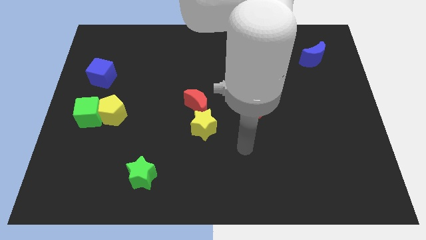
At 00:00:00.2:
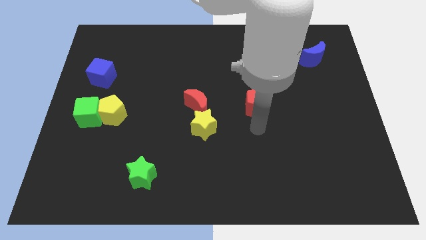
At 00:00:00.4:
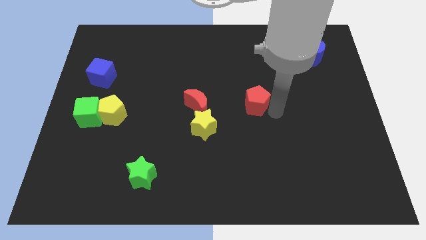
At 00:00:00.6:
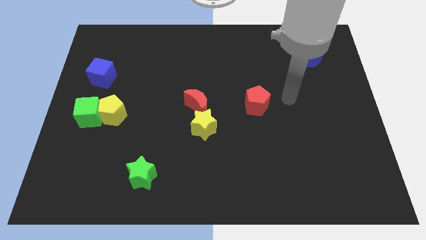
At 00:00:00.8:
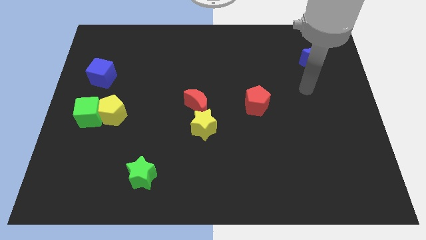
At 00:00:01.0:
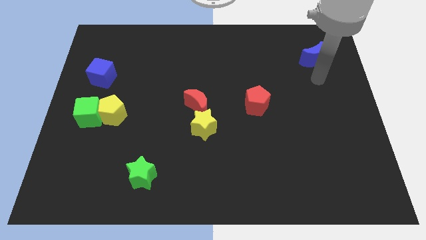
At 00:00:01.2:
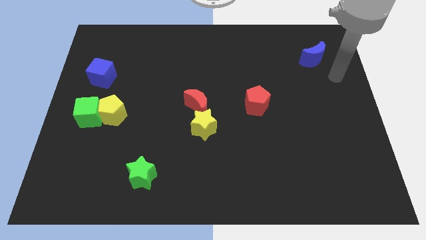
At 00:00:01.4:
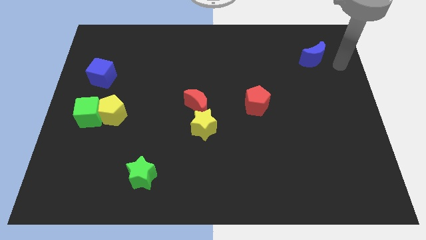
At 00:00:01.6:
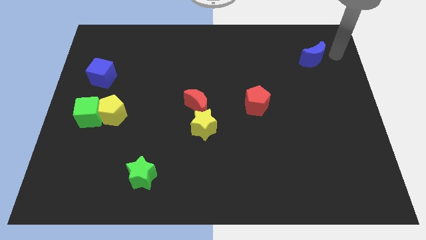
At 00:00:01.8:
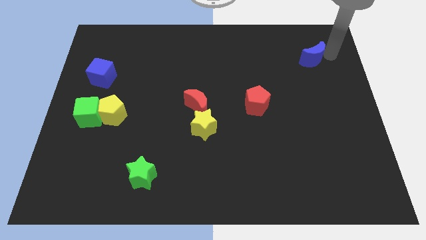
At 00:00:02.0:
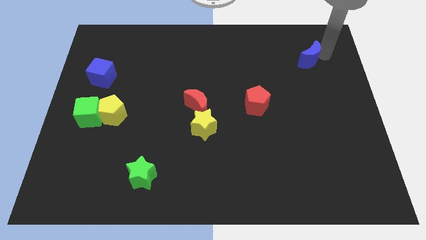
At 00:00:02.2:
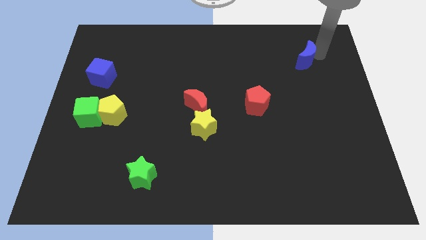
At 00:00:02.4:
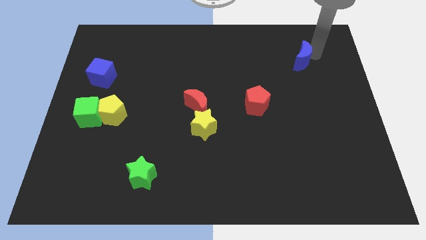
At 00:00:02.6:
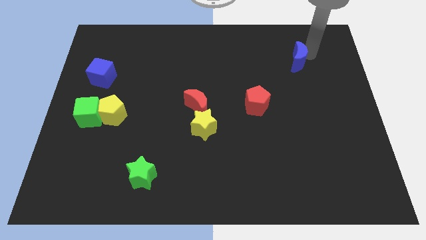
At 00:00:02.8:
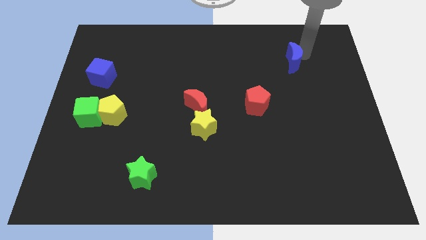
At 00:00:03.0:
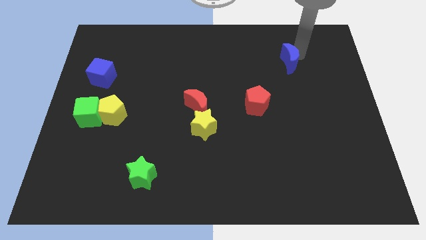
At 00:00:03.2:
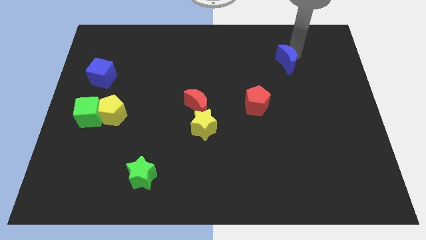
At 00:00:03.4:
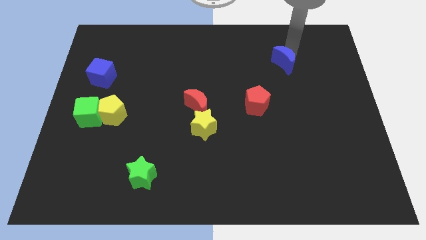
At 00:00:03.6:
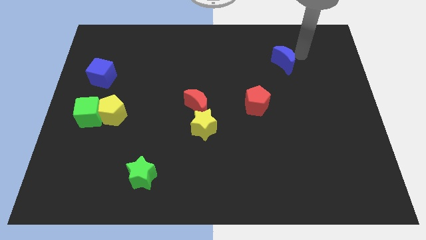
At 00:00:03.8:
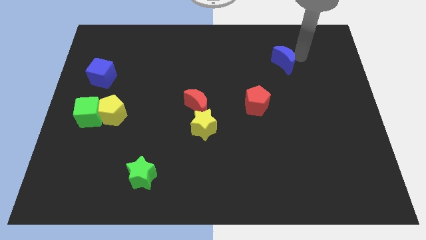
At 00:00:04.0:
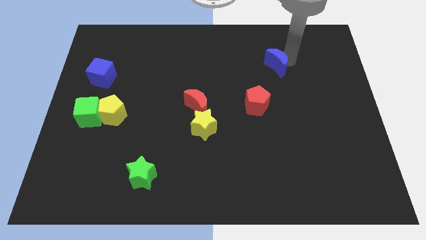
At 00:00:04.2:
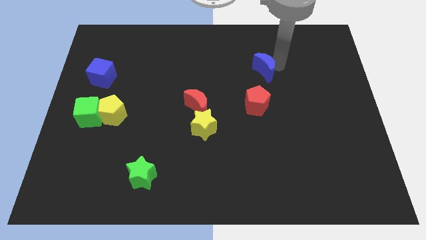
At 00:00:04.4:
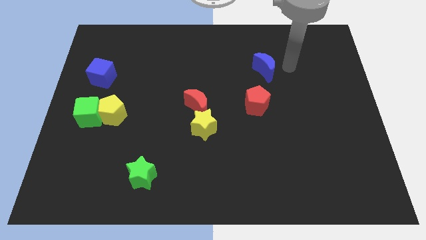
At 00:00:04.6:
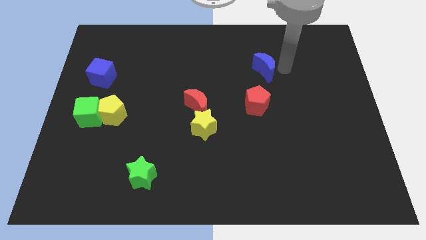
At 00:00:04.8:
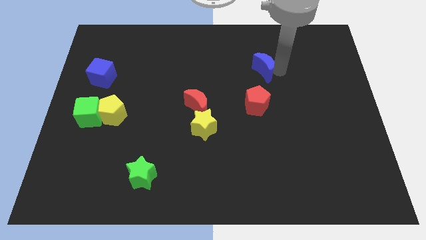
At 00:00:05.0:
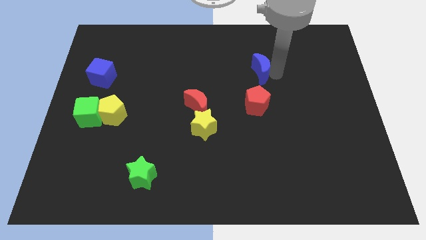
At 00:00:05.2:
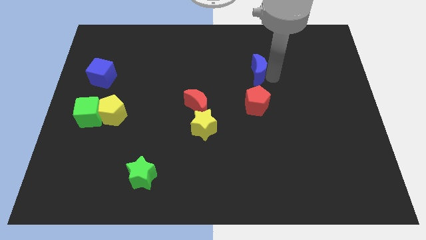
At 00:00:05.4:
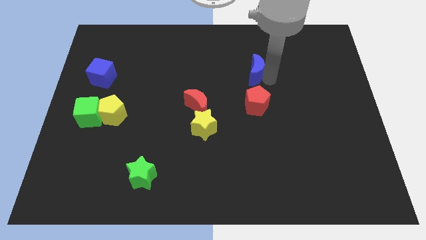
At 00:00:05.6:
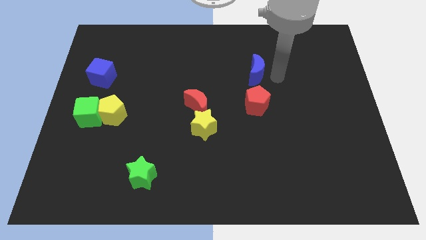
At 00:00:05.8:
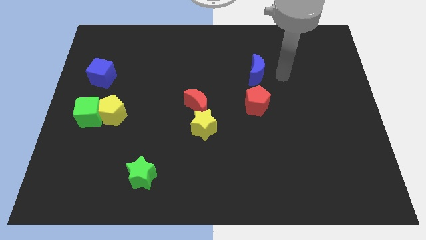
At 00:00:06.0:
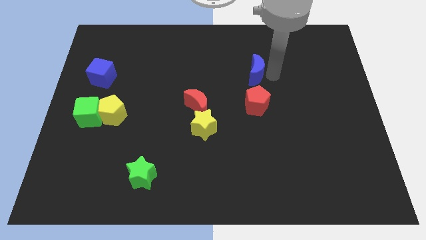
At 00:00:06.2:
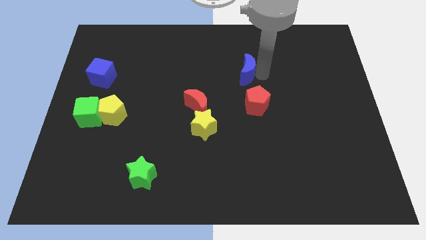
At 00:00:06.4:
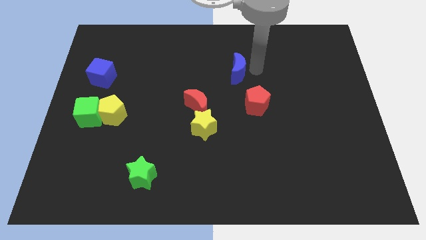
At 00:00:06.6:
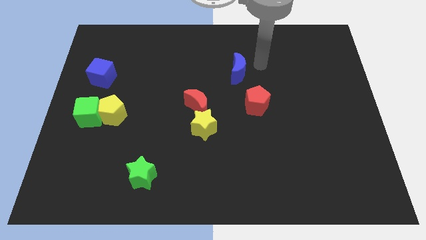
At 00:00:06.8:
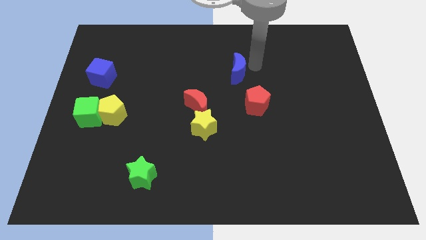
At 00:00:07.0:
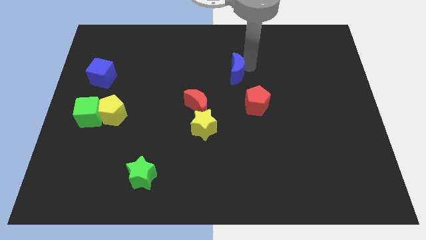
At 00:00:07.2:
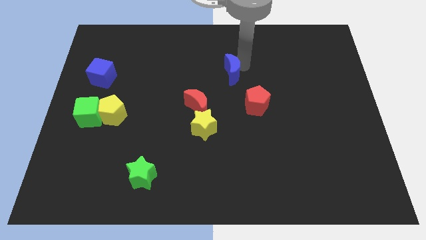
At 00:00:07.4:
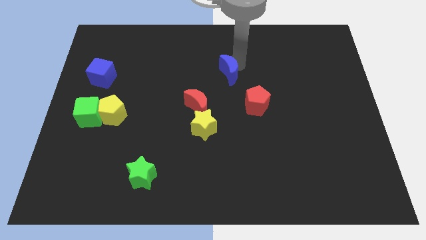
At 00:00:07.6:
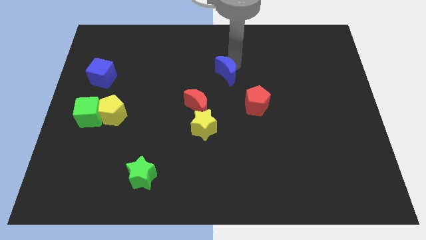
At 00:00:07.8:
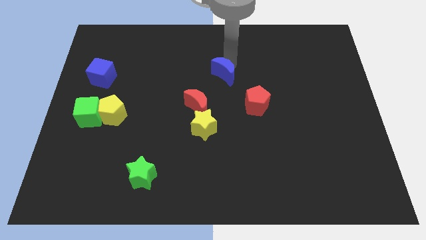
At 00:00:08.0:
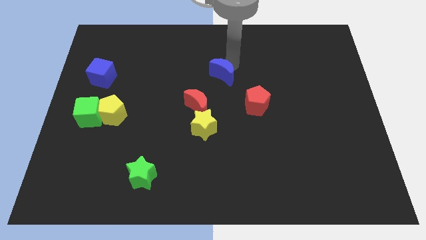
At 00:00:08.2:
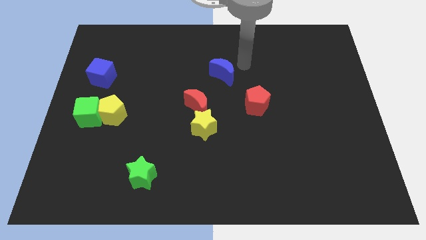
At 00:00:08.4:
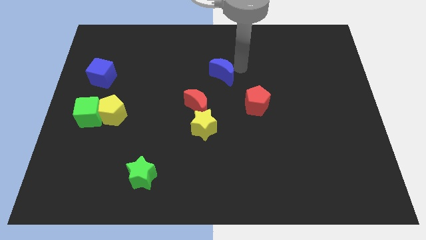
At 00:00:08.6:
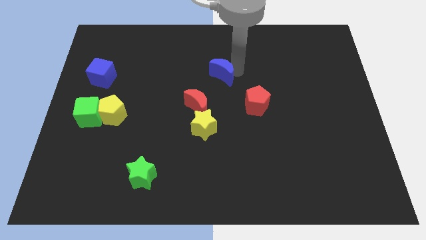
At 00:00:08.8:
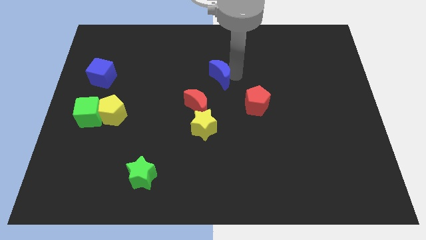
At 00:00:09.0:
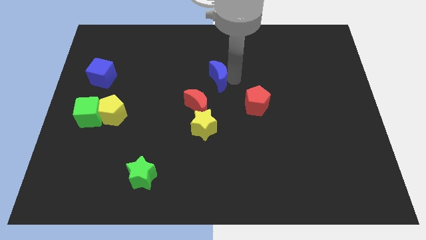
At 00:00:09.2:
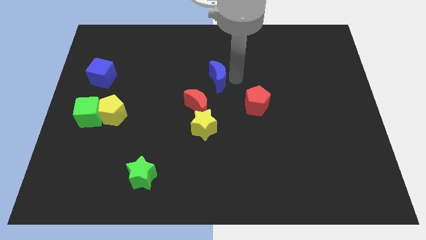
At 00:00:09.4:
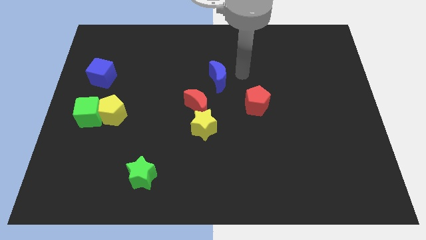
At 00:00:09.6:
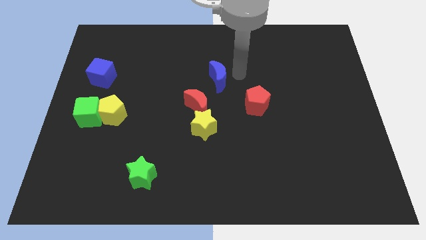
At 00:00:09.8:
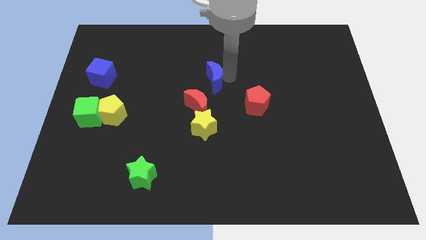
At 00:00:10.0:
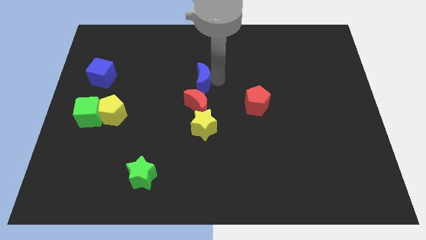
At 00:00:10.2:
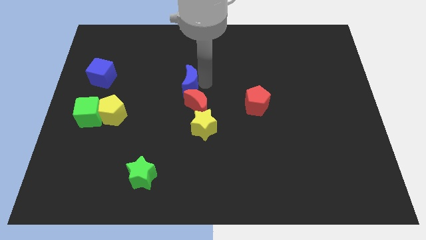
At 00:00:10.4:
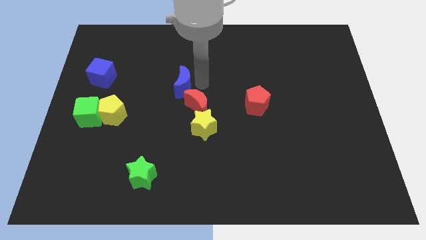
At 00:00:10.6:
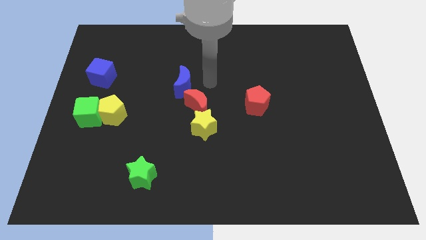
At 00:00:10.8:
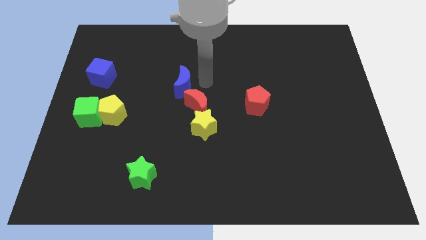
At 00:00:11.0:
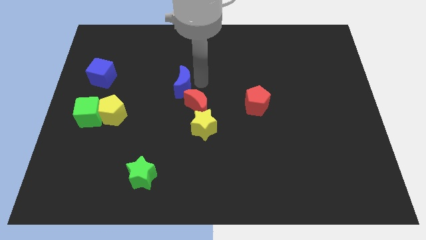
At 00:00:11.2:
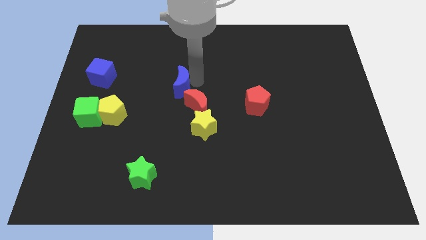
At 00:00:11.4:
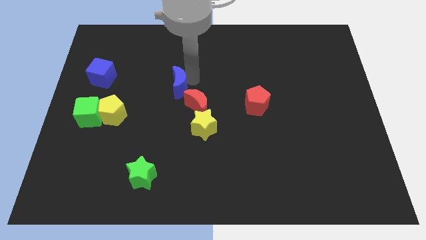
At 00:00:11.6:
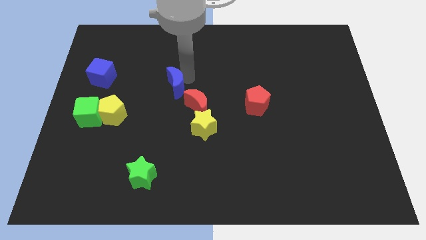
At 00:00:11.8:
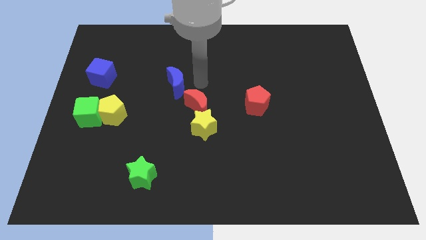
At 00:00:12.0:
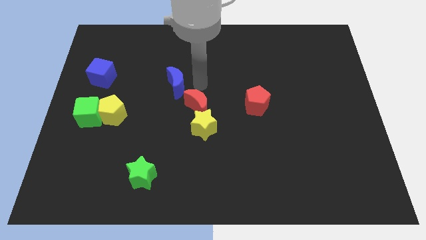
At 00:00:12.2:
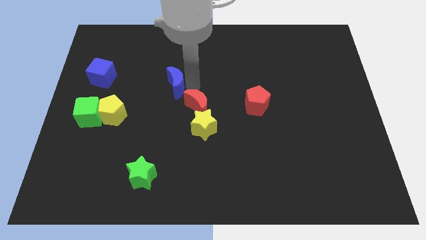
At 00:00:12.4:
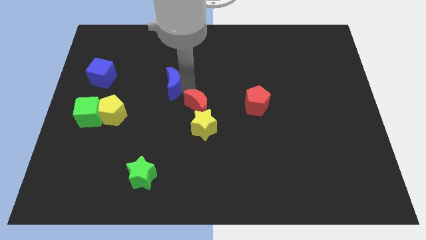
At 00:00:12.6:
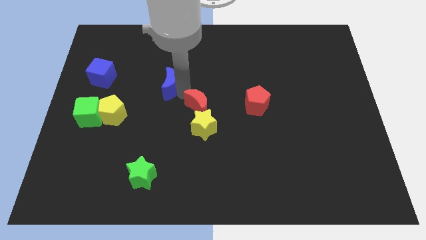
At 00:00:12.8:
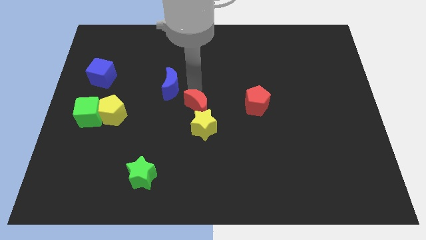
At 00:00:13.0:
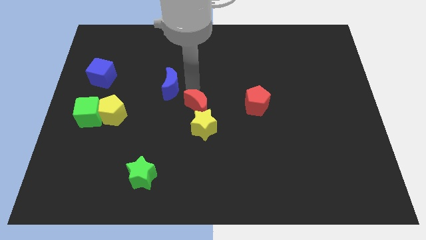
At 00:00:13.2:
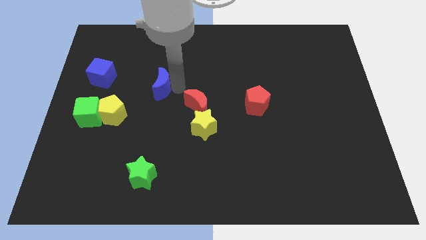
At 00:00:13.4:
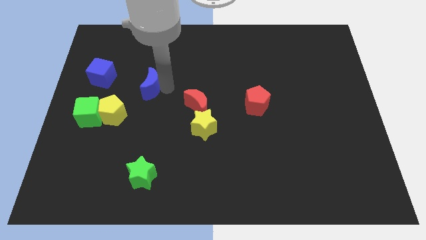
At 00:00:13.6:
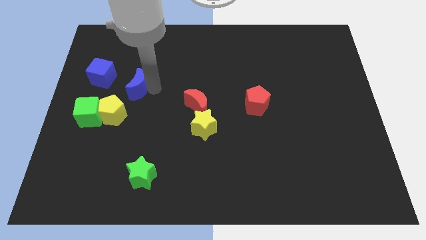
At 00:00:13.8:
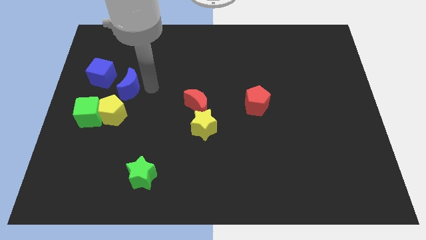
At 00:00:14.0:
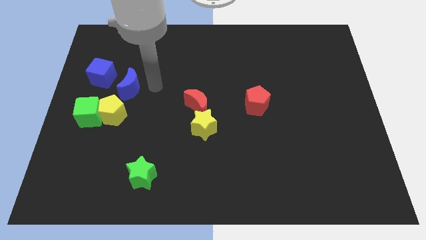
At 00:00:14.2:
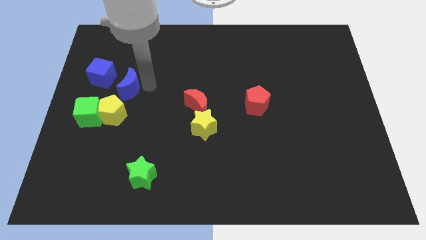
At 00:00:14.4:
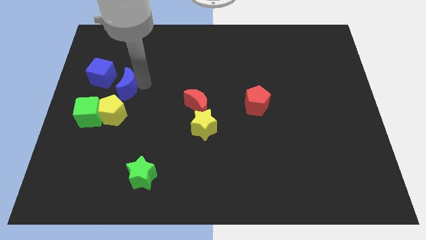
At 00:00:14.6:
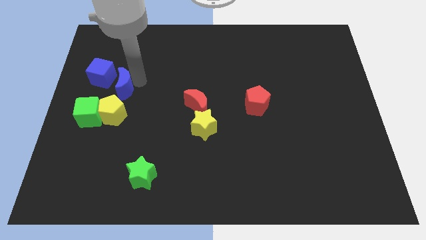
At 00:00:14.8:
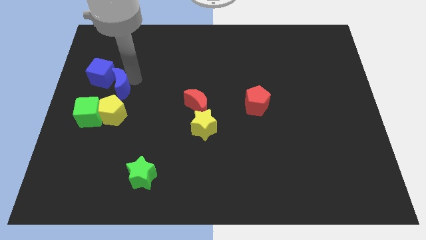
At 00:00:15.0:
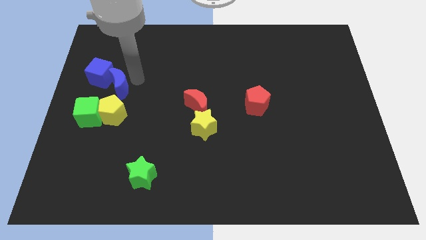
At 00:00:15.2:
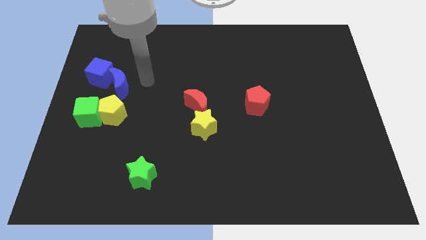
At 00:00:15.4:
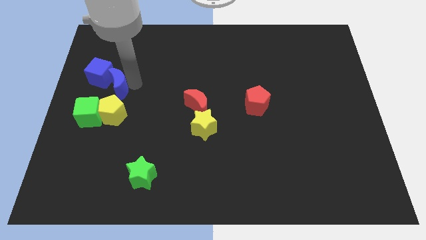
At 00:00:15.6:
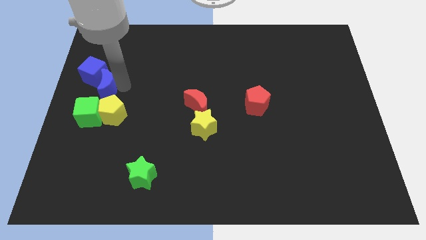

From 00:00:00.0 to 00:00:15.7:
put the blue moon to the left side
